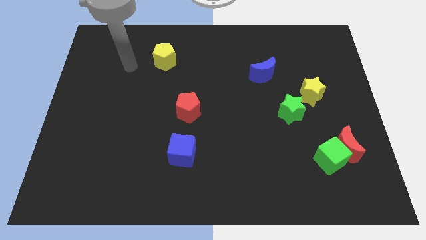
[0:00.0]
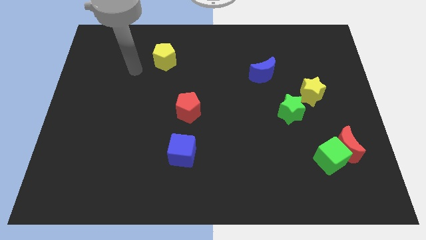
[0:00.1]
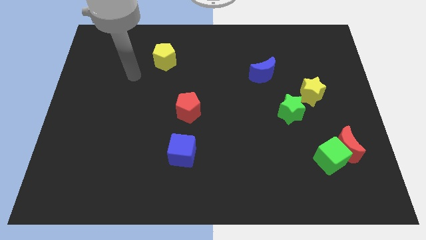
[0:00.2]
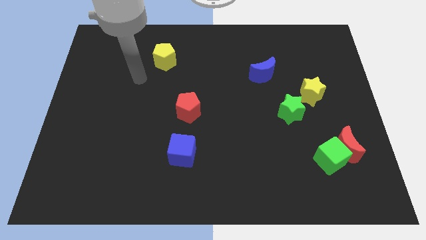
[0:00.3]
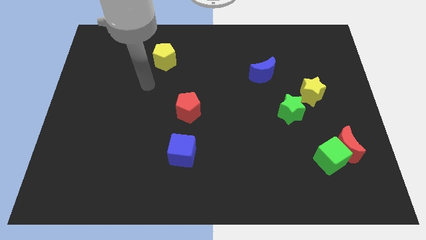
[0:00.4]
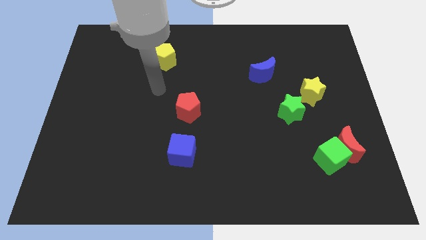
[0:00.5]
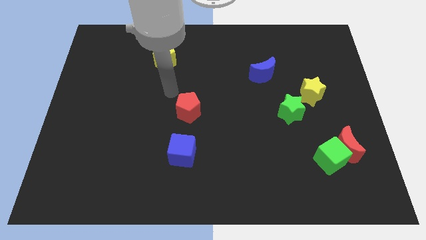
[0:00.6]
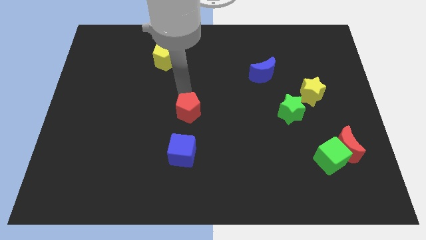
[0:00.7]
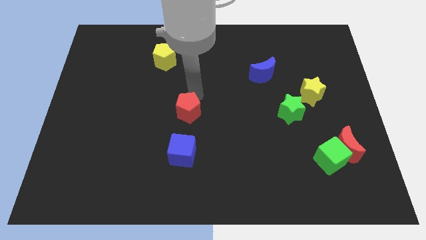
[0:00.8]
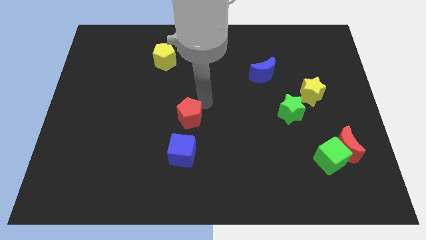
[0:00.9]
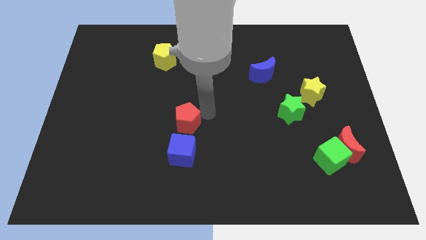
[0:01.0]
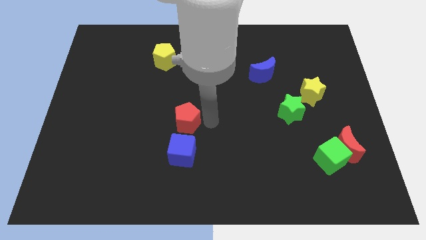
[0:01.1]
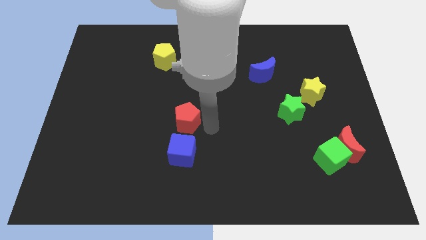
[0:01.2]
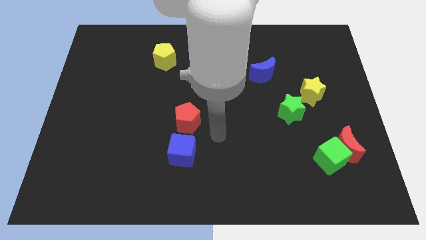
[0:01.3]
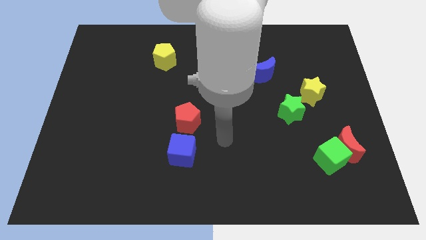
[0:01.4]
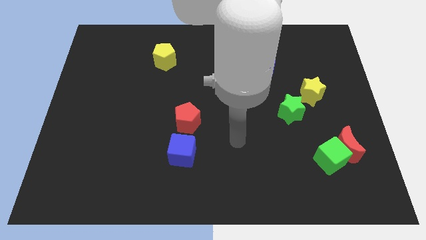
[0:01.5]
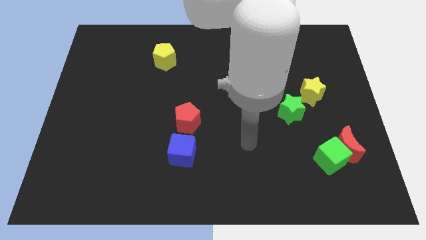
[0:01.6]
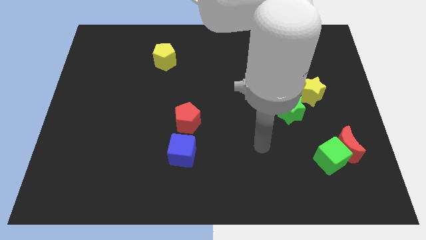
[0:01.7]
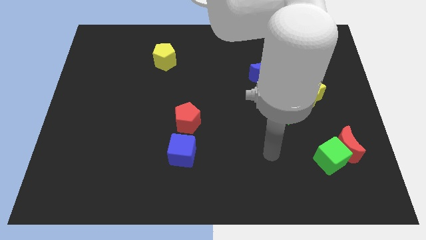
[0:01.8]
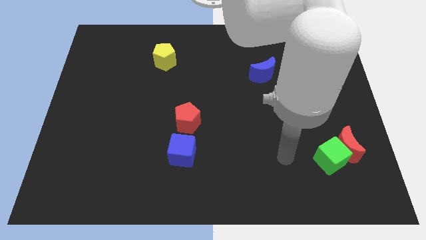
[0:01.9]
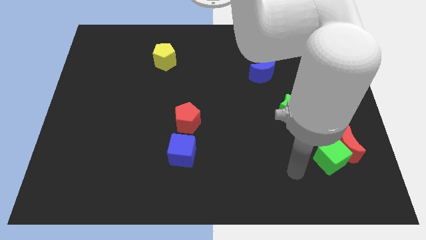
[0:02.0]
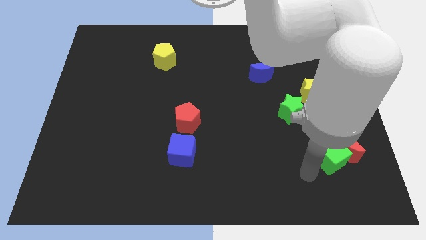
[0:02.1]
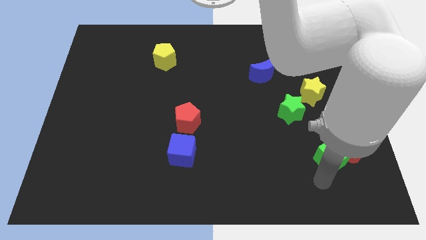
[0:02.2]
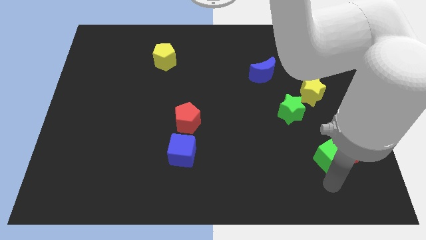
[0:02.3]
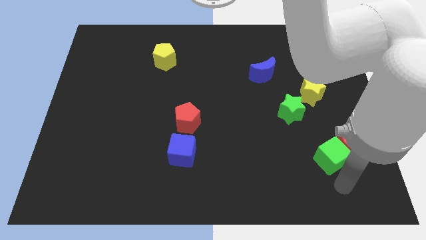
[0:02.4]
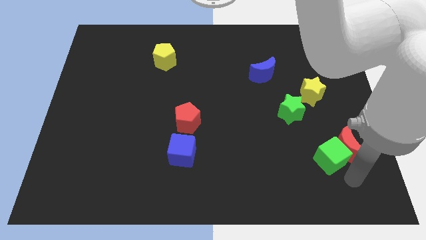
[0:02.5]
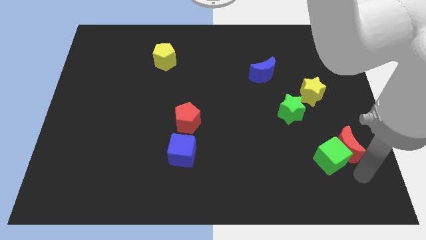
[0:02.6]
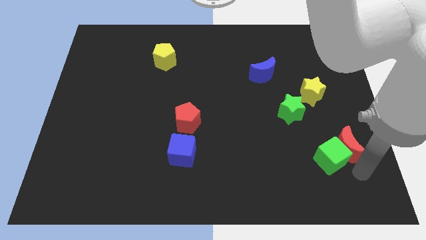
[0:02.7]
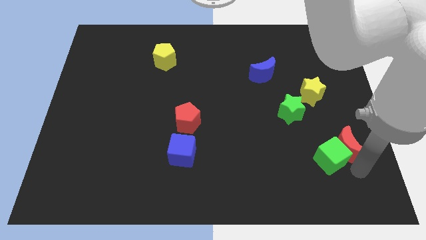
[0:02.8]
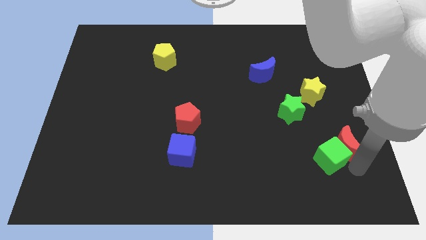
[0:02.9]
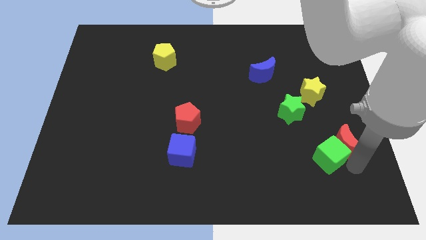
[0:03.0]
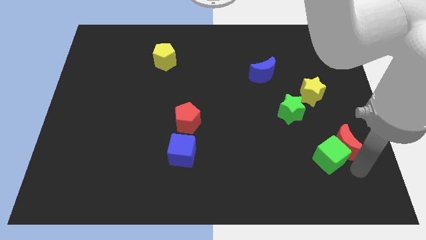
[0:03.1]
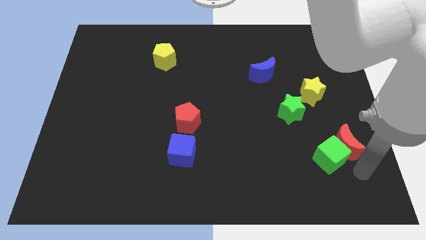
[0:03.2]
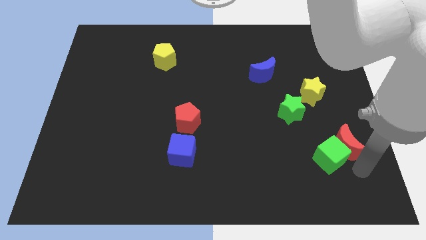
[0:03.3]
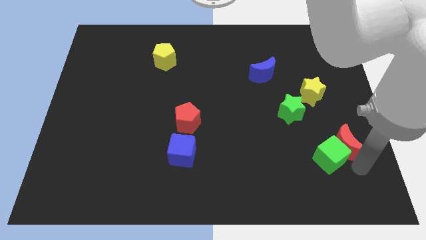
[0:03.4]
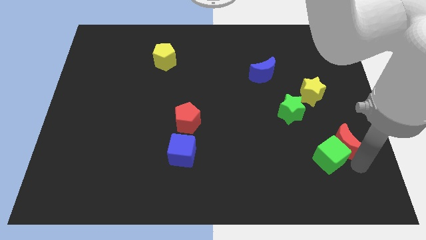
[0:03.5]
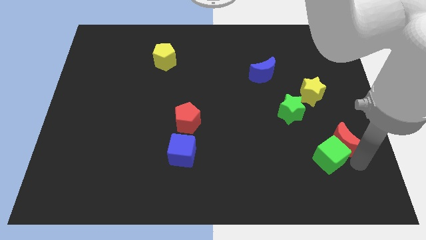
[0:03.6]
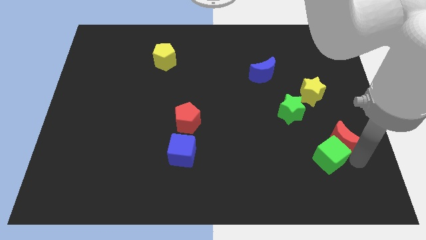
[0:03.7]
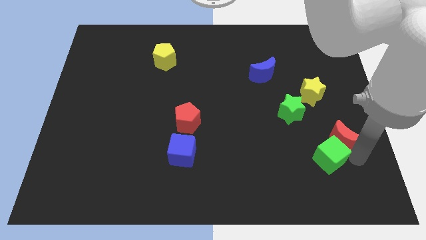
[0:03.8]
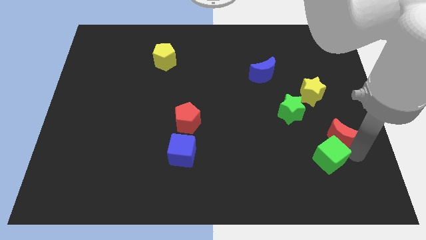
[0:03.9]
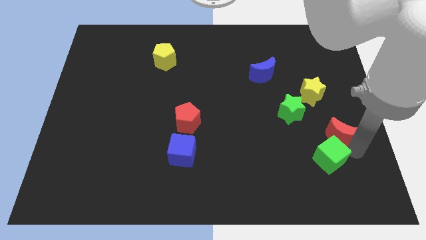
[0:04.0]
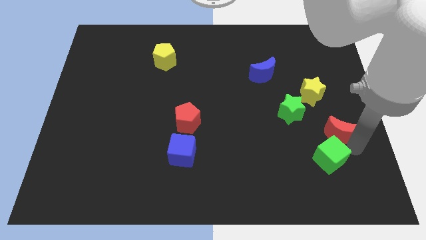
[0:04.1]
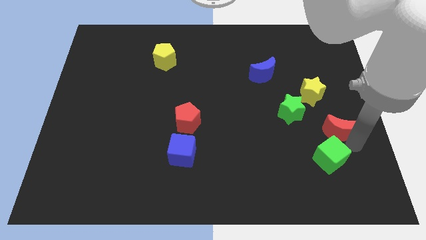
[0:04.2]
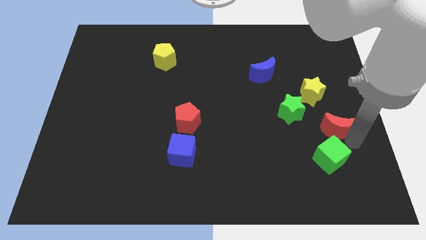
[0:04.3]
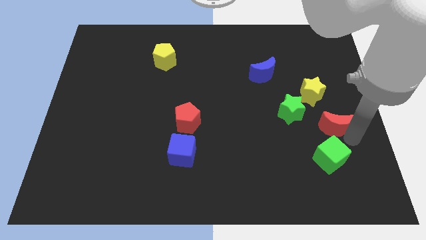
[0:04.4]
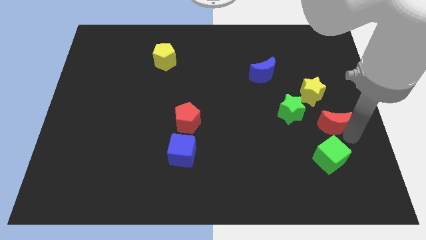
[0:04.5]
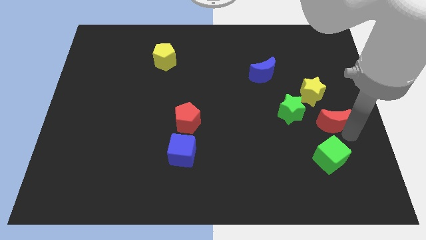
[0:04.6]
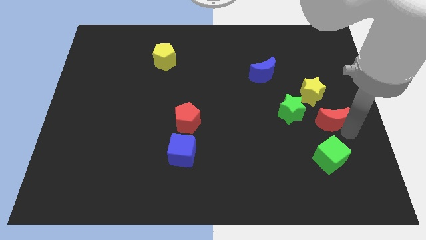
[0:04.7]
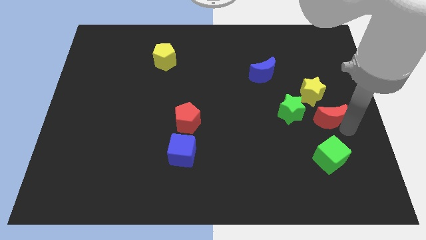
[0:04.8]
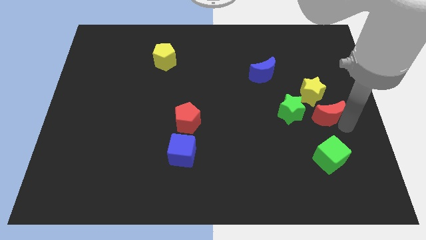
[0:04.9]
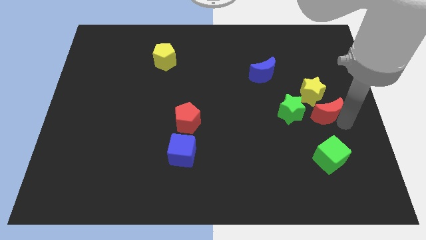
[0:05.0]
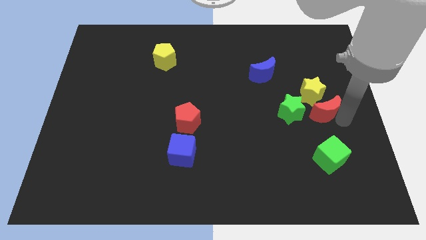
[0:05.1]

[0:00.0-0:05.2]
push the red moon to the yellow star

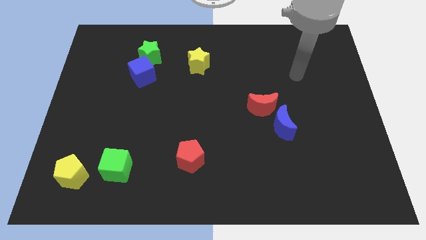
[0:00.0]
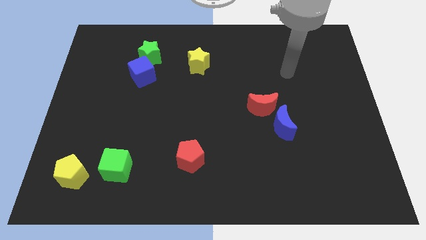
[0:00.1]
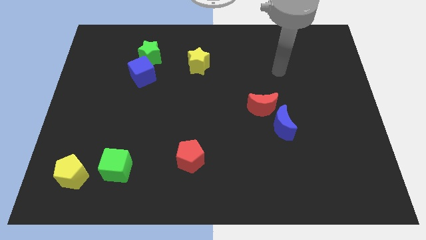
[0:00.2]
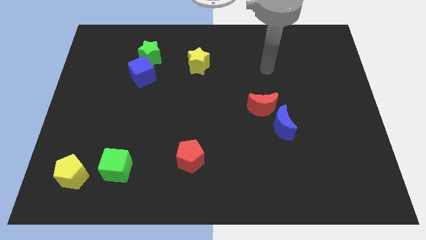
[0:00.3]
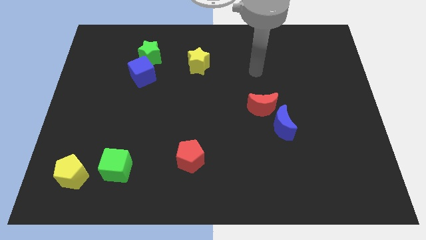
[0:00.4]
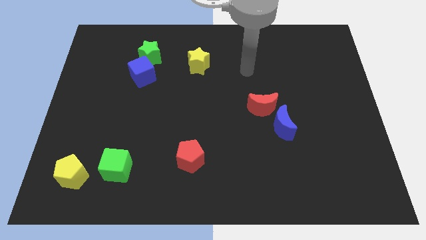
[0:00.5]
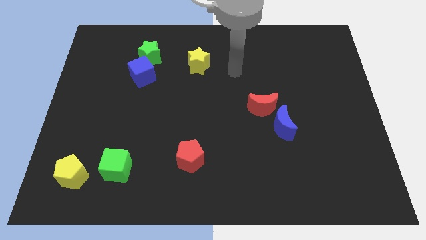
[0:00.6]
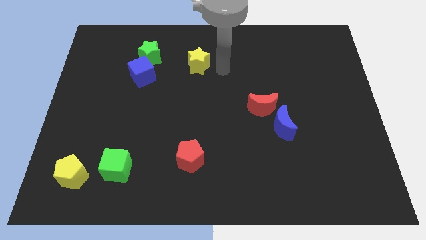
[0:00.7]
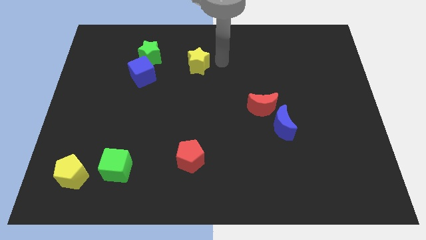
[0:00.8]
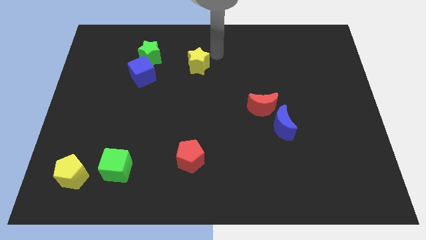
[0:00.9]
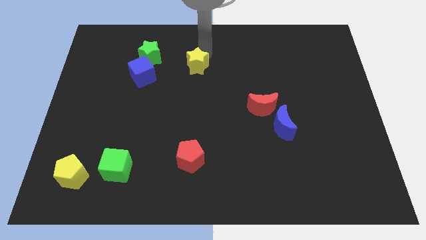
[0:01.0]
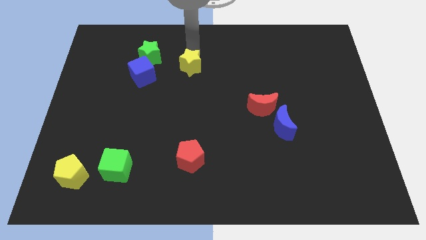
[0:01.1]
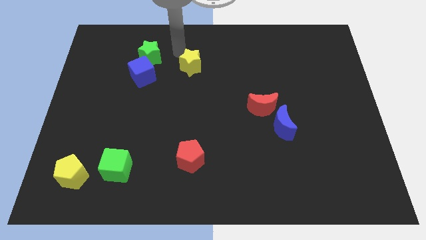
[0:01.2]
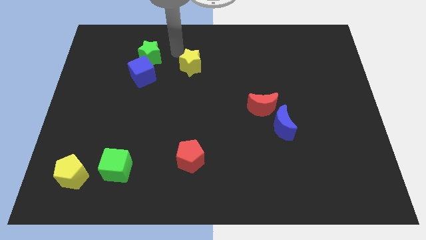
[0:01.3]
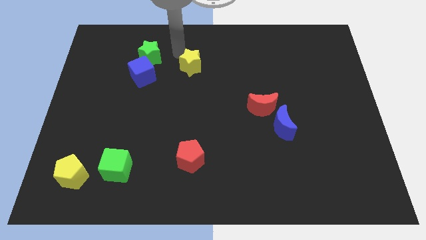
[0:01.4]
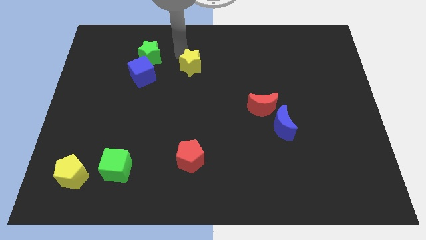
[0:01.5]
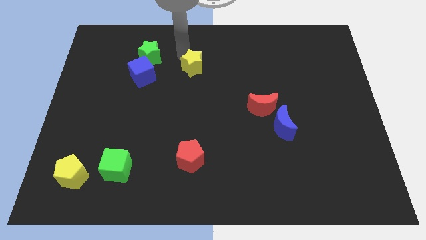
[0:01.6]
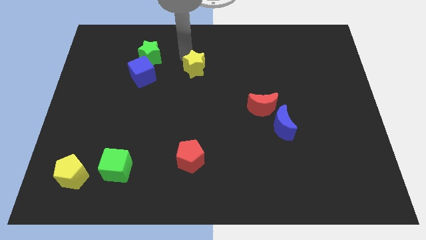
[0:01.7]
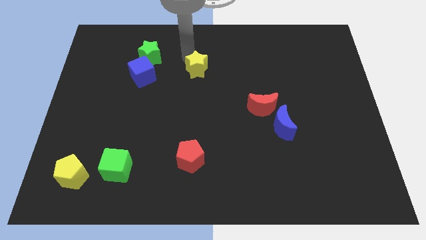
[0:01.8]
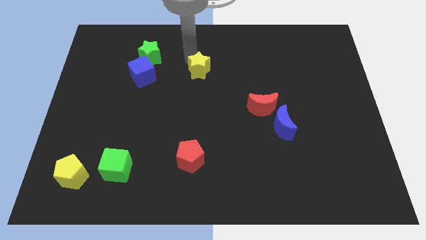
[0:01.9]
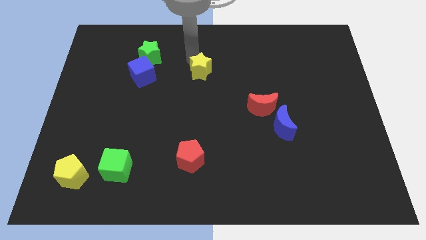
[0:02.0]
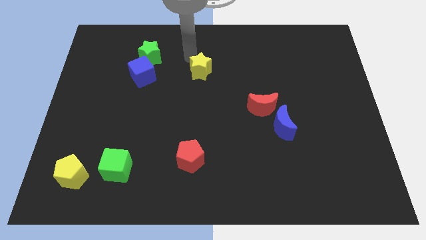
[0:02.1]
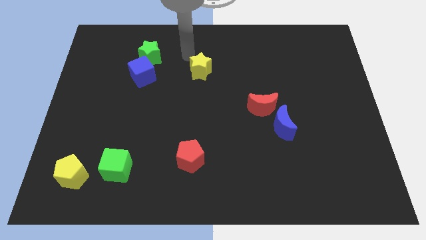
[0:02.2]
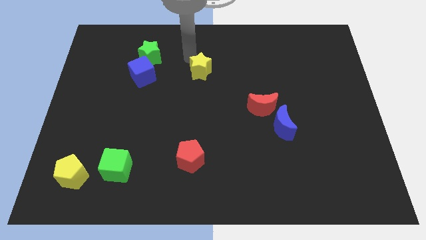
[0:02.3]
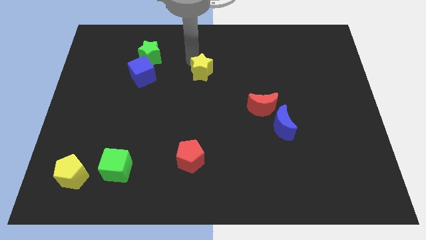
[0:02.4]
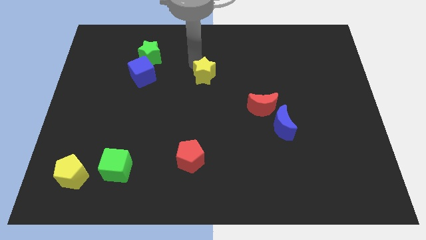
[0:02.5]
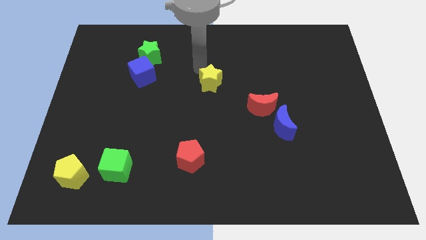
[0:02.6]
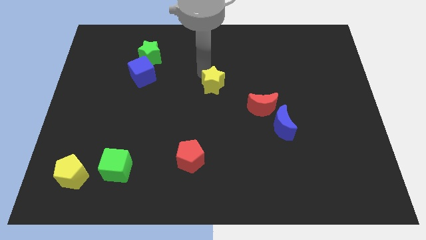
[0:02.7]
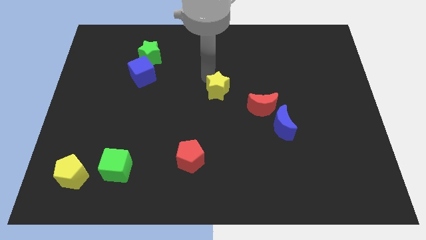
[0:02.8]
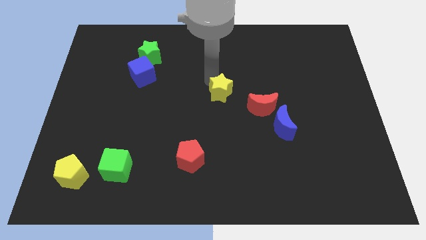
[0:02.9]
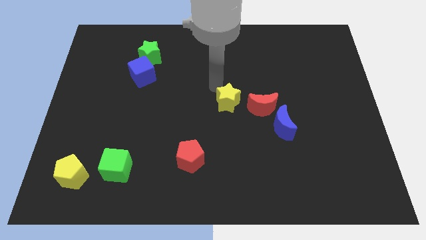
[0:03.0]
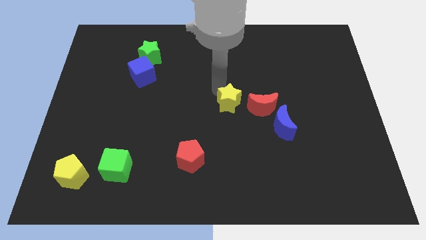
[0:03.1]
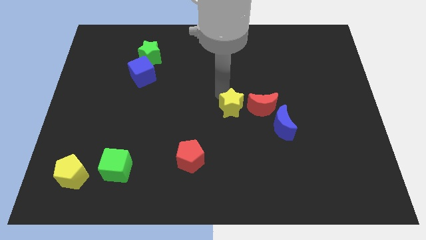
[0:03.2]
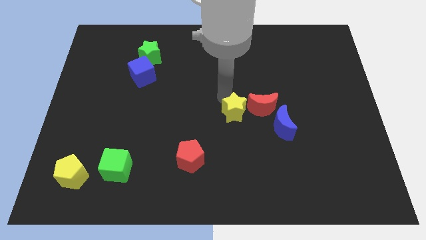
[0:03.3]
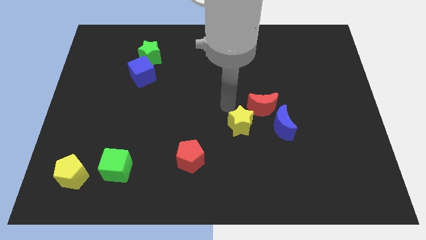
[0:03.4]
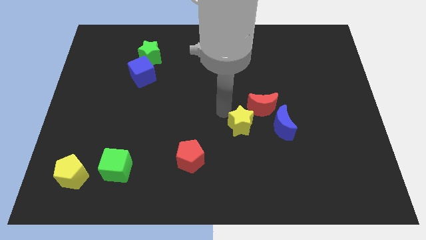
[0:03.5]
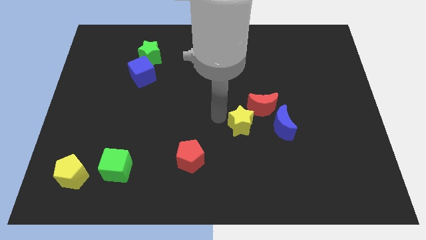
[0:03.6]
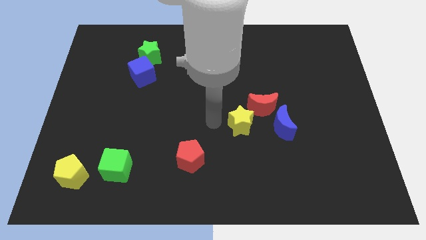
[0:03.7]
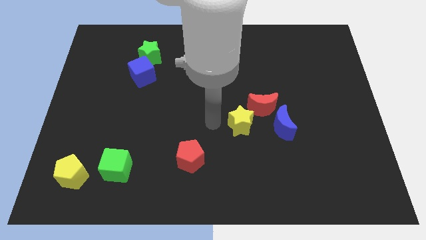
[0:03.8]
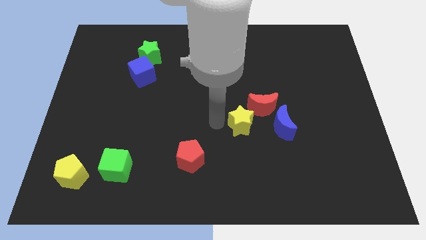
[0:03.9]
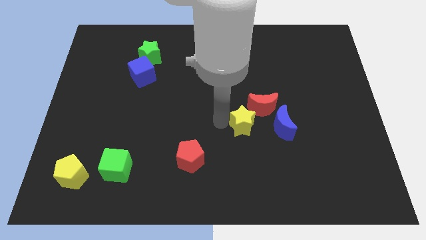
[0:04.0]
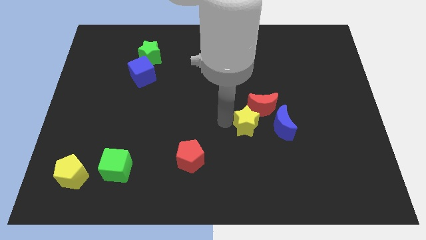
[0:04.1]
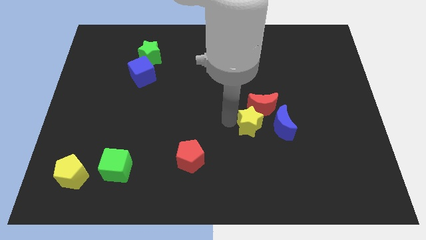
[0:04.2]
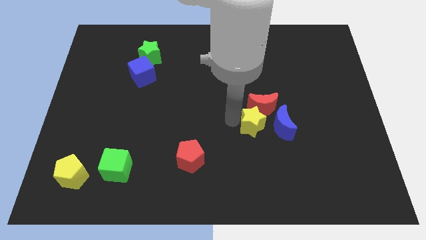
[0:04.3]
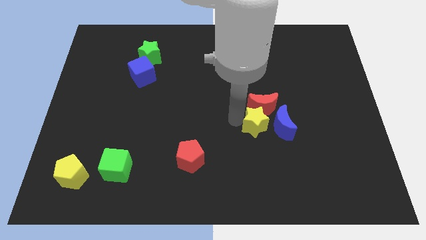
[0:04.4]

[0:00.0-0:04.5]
push the yellow star to the blue moon
